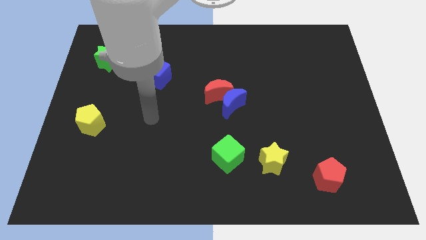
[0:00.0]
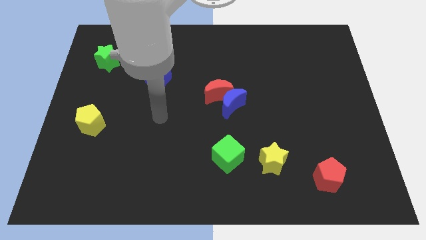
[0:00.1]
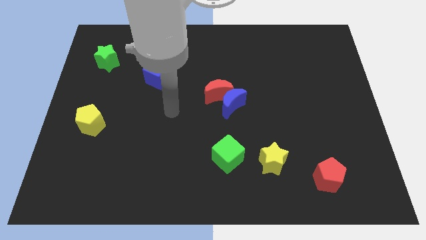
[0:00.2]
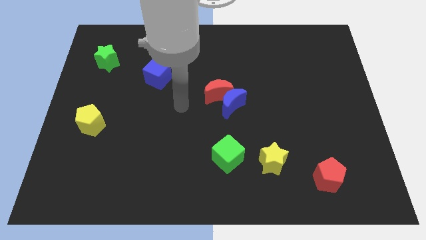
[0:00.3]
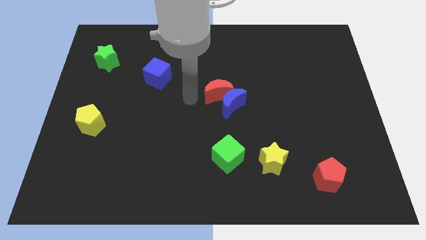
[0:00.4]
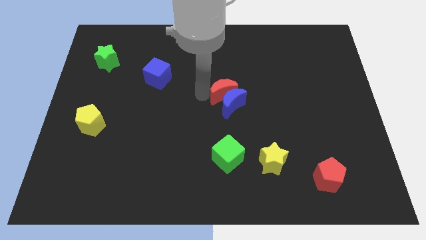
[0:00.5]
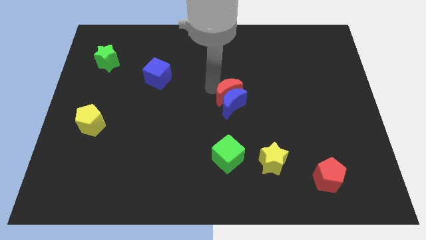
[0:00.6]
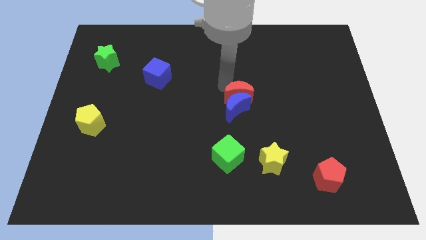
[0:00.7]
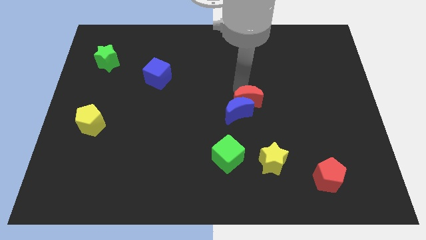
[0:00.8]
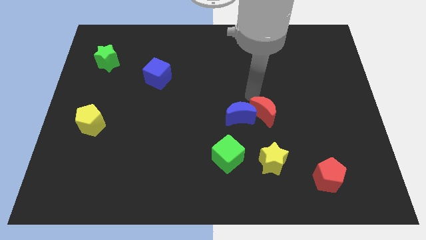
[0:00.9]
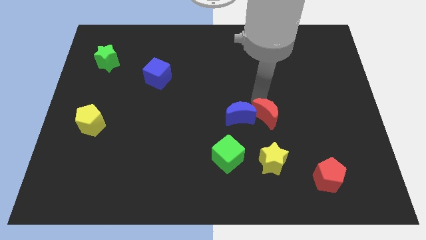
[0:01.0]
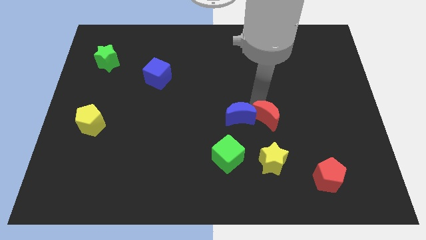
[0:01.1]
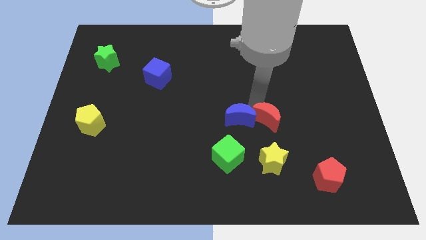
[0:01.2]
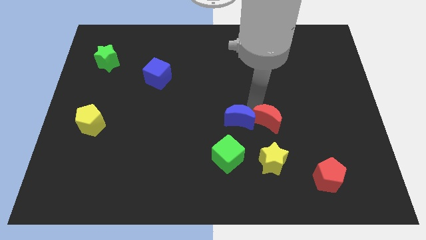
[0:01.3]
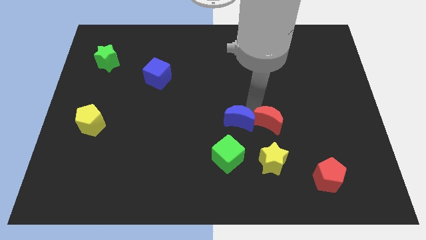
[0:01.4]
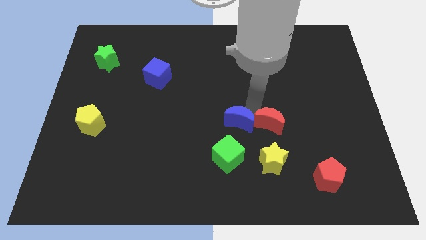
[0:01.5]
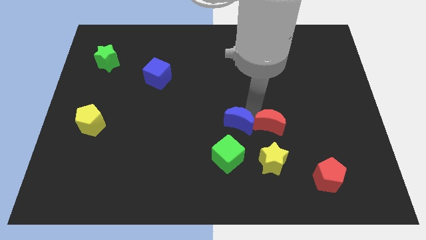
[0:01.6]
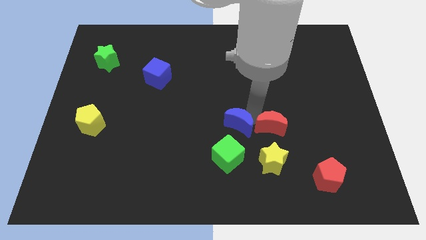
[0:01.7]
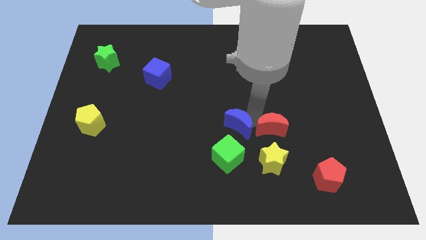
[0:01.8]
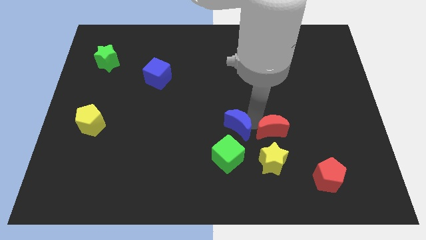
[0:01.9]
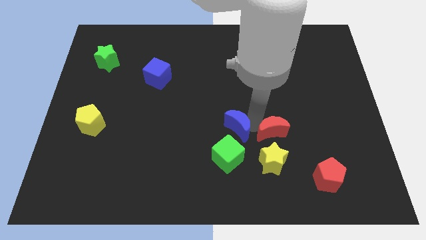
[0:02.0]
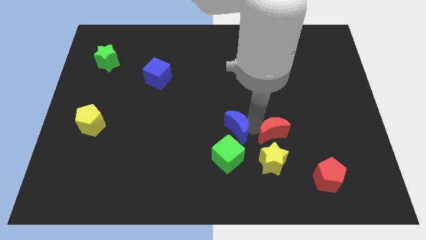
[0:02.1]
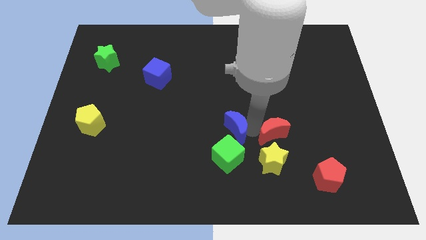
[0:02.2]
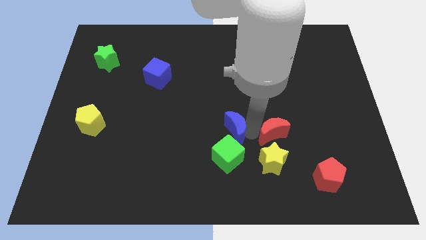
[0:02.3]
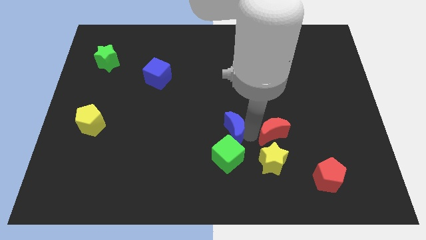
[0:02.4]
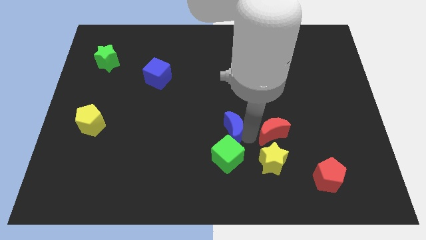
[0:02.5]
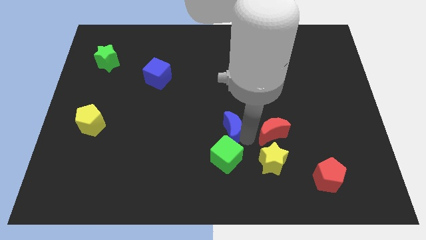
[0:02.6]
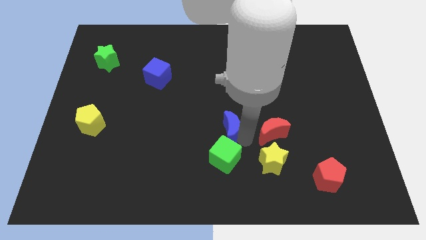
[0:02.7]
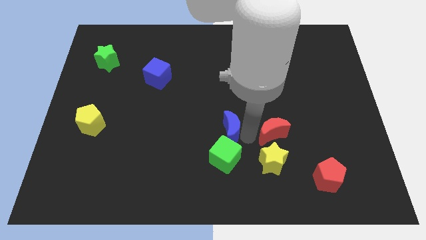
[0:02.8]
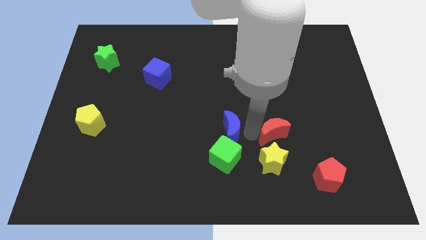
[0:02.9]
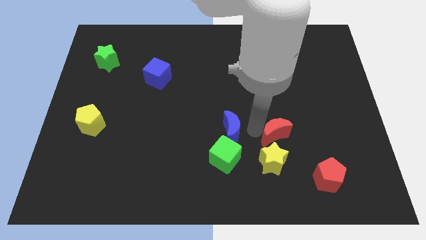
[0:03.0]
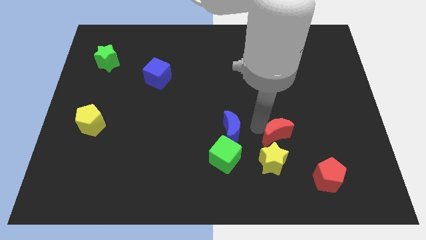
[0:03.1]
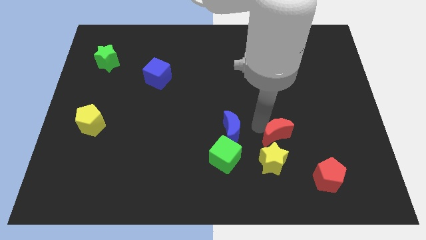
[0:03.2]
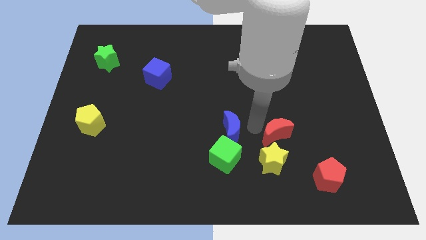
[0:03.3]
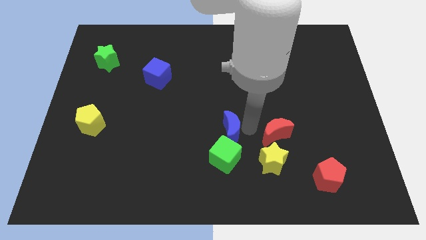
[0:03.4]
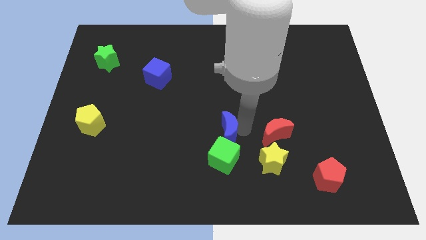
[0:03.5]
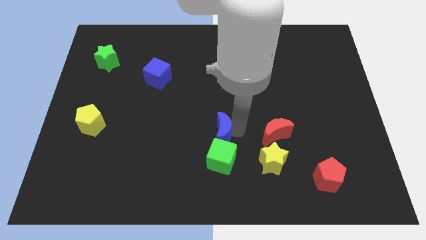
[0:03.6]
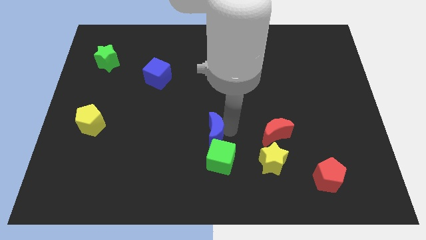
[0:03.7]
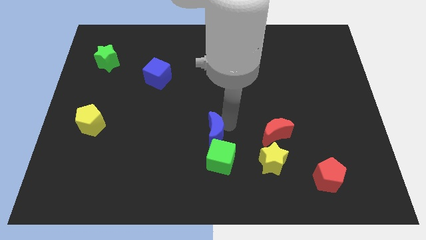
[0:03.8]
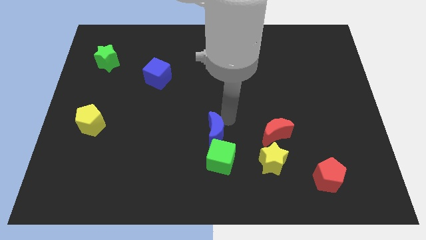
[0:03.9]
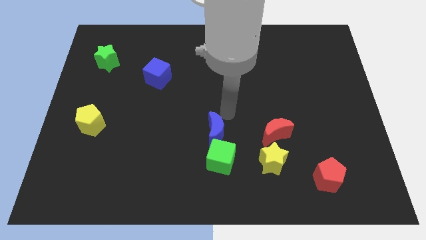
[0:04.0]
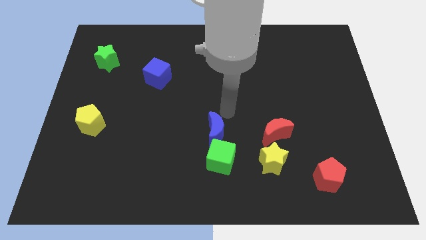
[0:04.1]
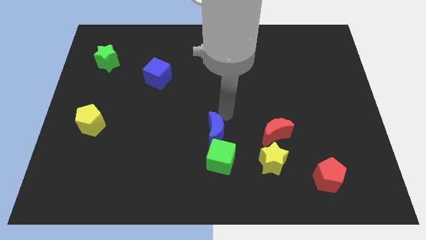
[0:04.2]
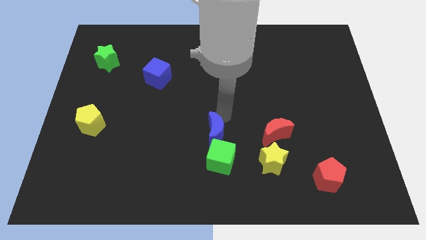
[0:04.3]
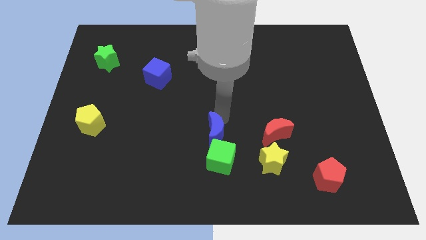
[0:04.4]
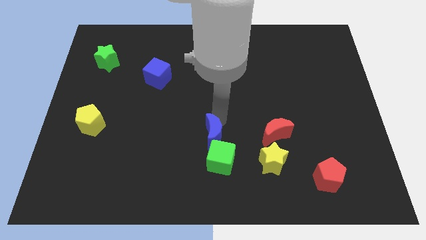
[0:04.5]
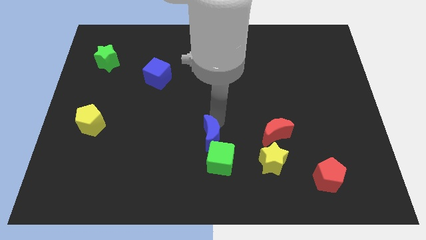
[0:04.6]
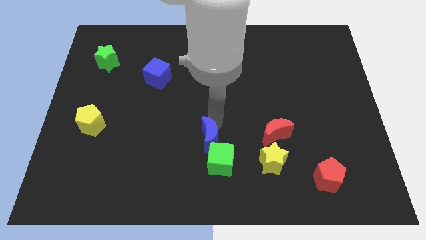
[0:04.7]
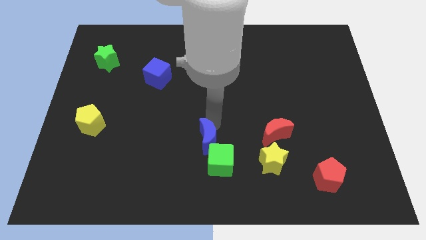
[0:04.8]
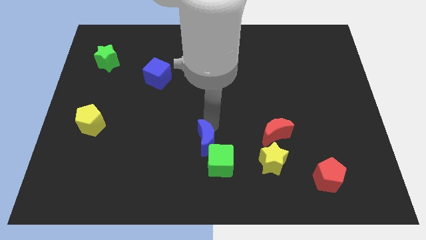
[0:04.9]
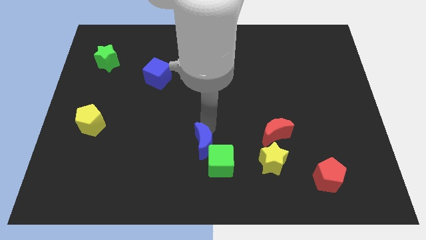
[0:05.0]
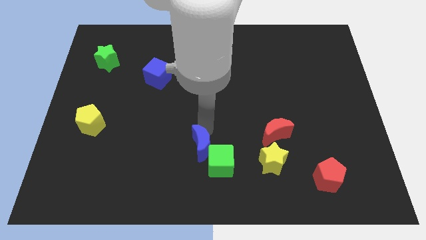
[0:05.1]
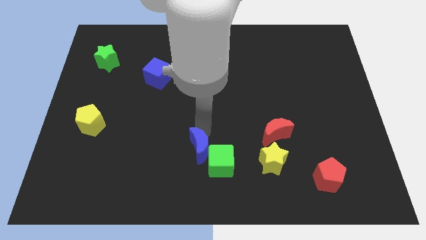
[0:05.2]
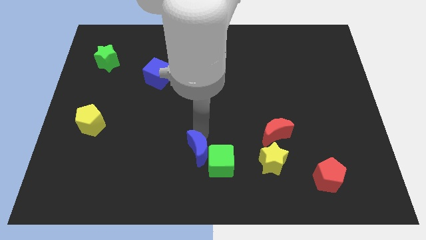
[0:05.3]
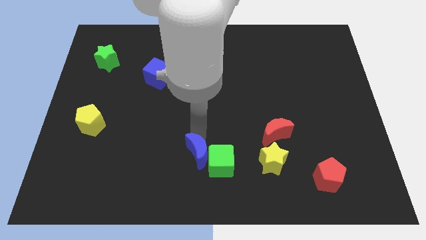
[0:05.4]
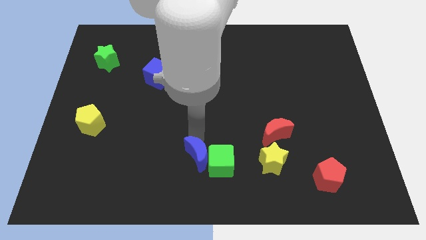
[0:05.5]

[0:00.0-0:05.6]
push the blue moon to the bottom side

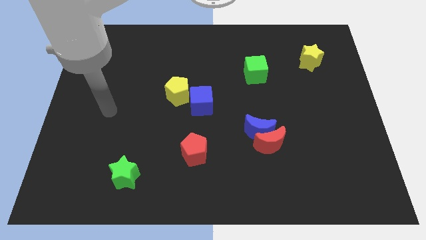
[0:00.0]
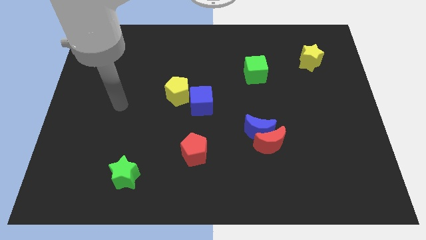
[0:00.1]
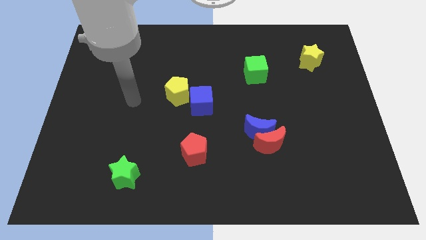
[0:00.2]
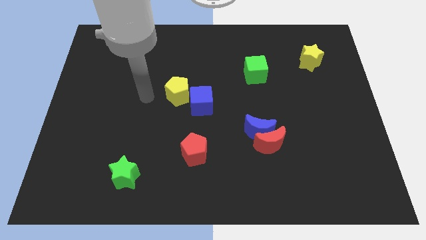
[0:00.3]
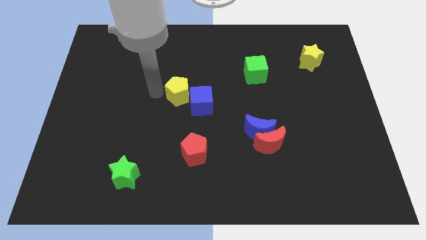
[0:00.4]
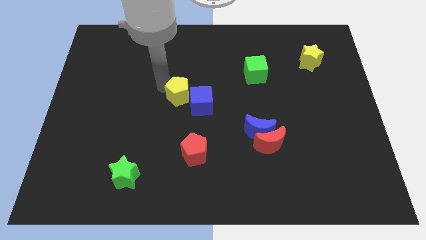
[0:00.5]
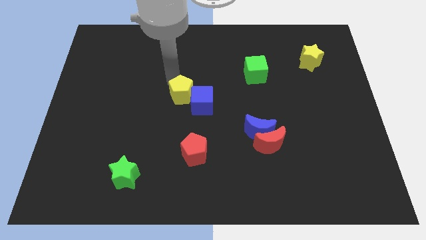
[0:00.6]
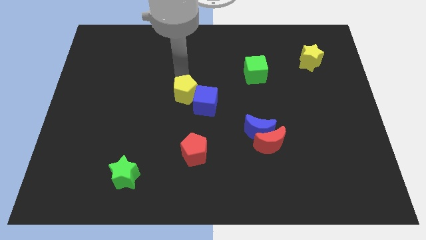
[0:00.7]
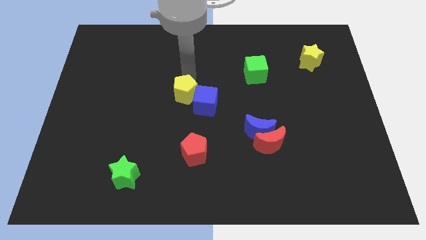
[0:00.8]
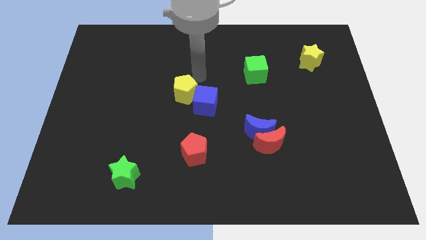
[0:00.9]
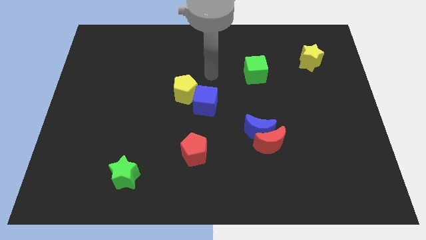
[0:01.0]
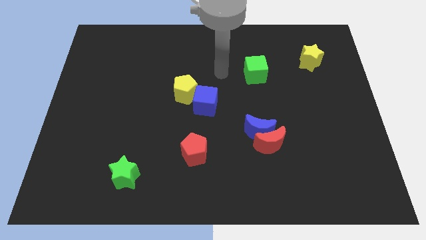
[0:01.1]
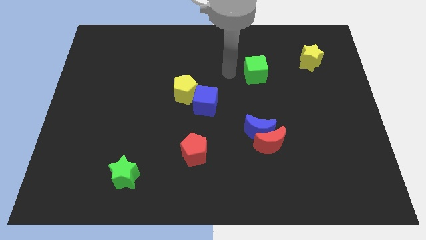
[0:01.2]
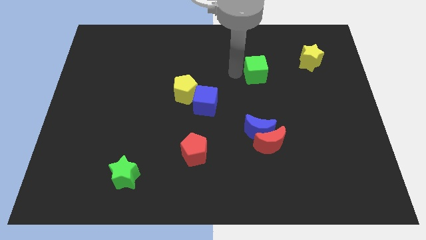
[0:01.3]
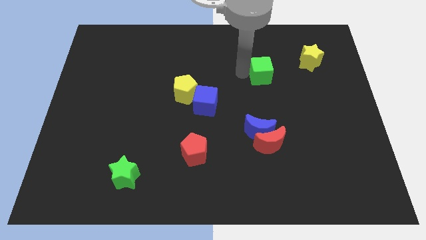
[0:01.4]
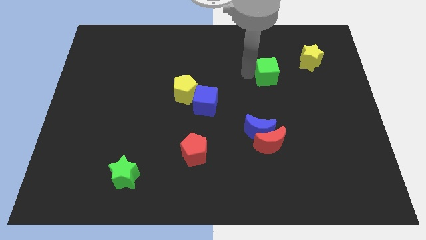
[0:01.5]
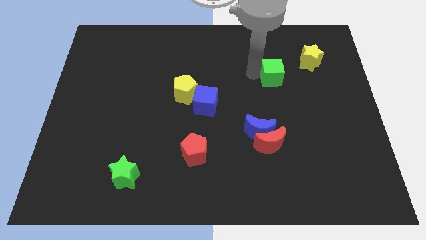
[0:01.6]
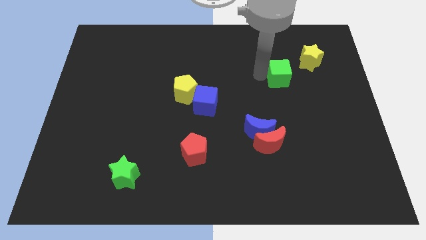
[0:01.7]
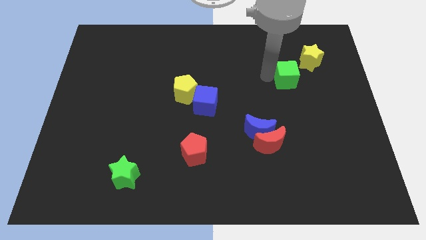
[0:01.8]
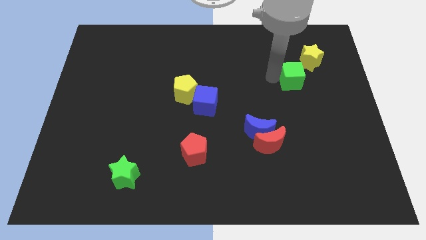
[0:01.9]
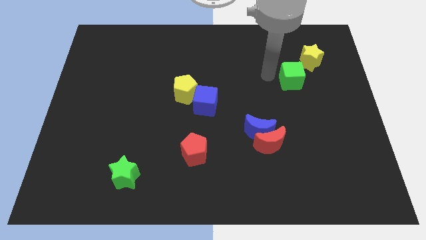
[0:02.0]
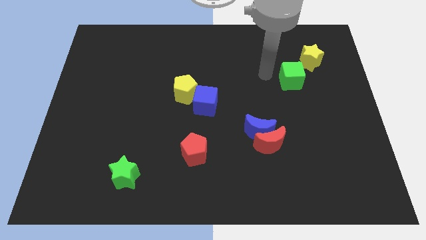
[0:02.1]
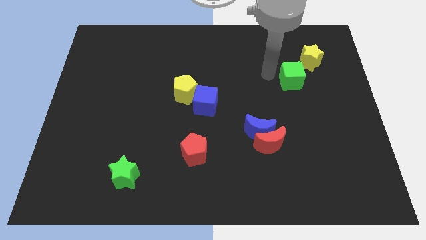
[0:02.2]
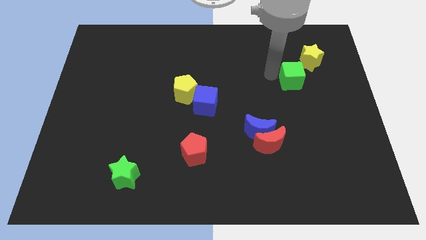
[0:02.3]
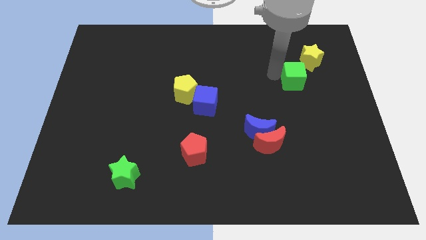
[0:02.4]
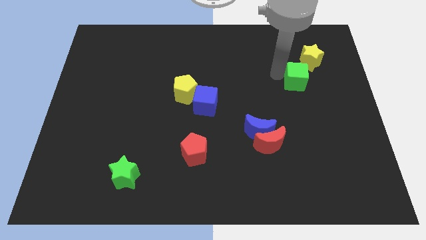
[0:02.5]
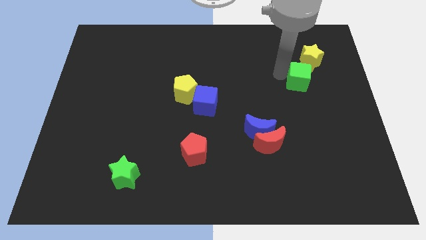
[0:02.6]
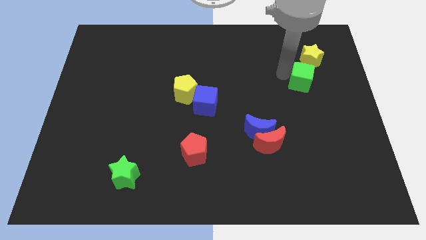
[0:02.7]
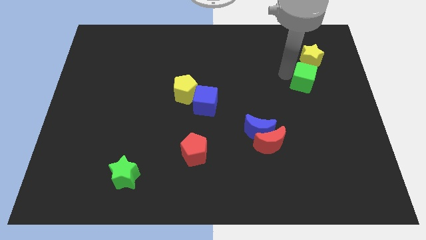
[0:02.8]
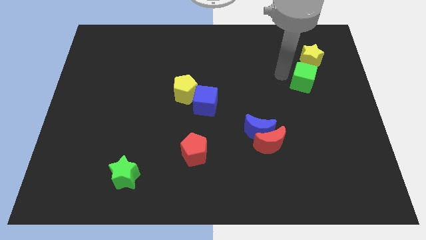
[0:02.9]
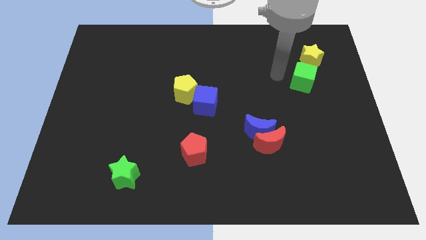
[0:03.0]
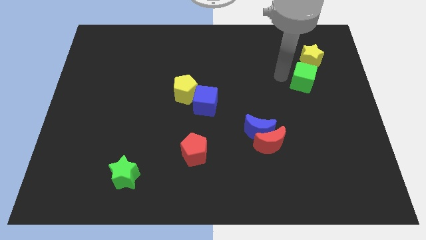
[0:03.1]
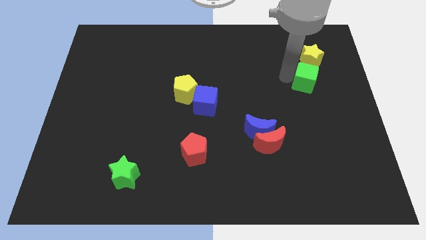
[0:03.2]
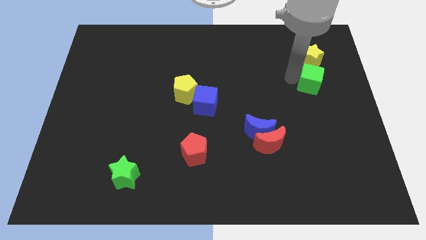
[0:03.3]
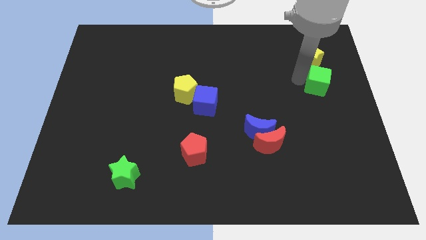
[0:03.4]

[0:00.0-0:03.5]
slide the green cube to the center right
